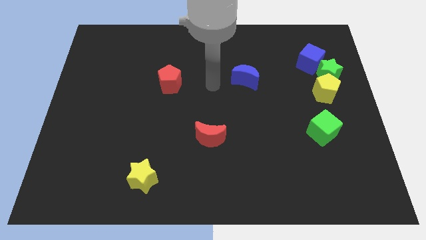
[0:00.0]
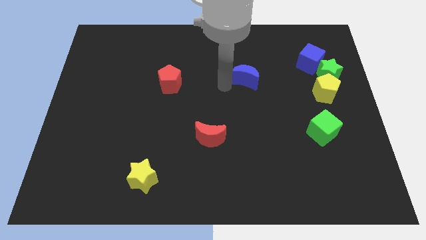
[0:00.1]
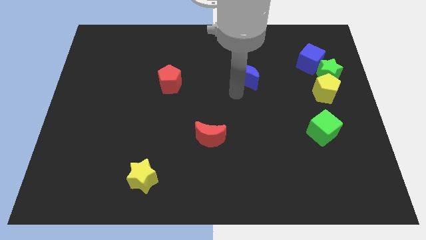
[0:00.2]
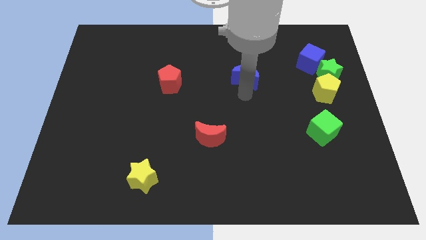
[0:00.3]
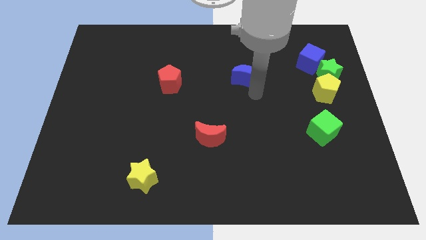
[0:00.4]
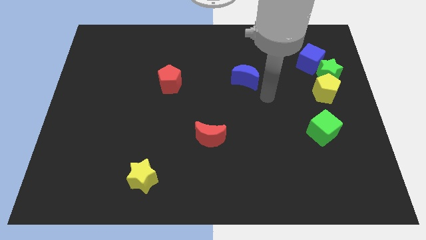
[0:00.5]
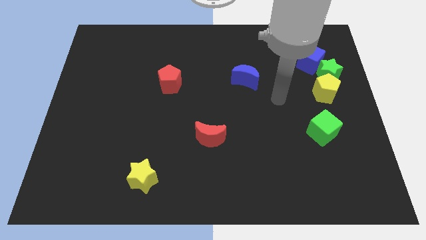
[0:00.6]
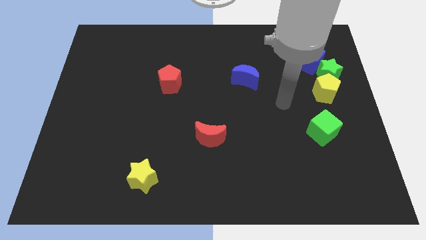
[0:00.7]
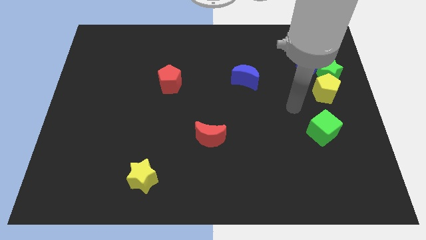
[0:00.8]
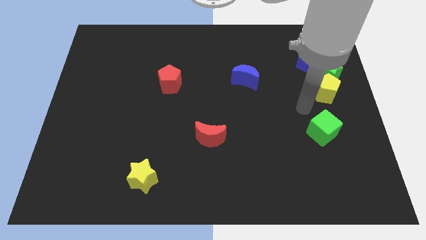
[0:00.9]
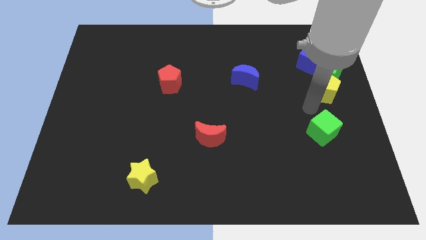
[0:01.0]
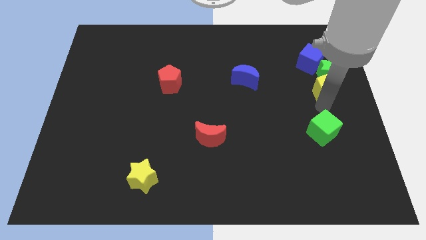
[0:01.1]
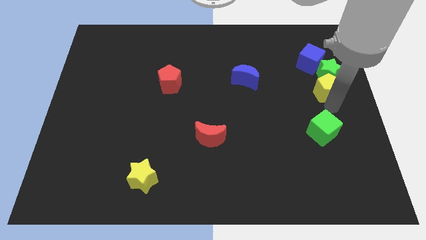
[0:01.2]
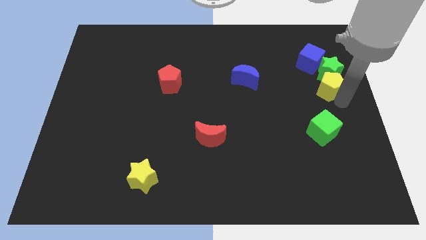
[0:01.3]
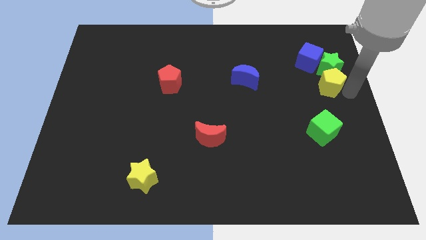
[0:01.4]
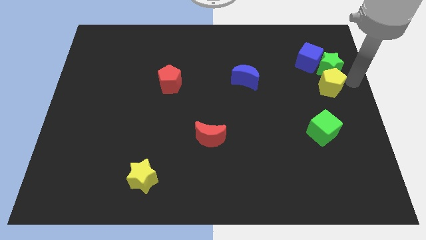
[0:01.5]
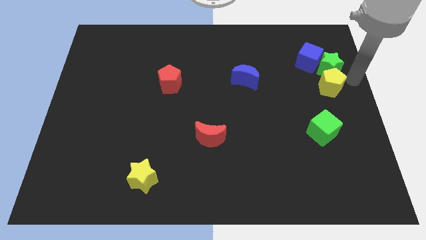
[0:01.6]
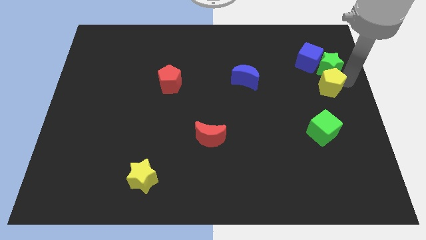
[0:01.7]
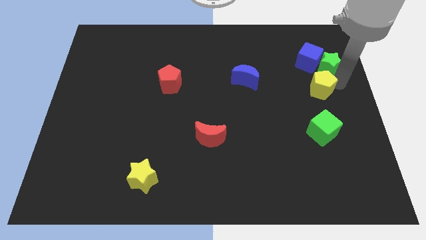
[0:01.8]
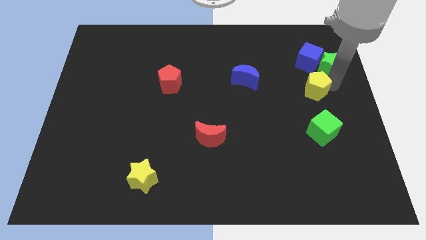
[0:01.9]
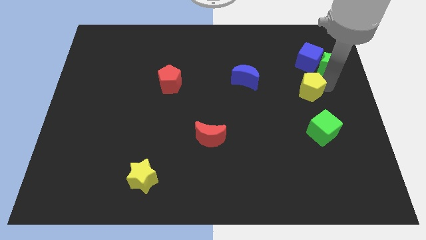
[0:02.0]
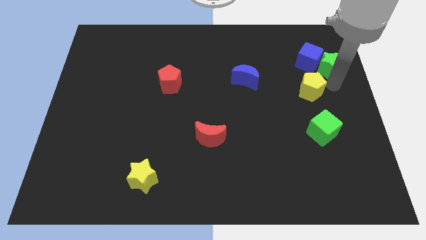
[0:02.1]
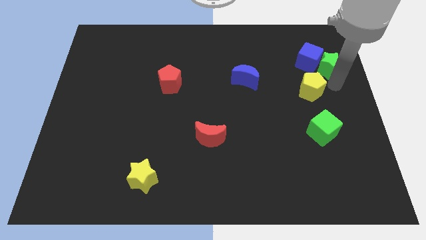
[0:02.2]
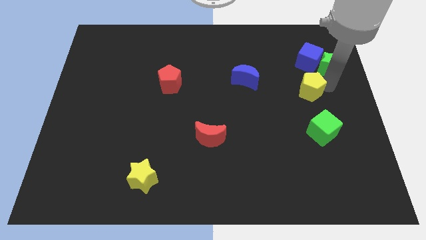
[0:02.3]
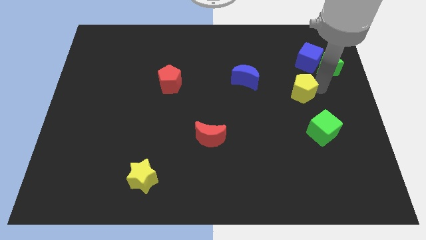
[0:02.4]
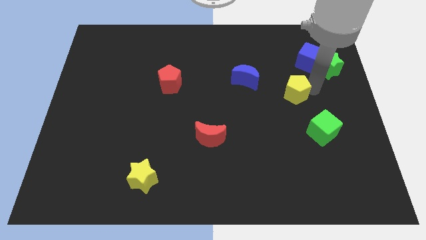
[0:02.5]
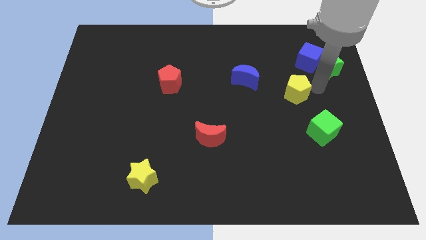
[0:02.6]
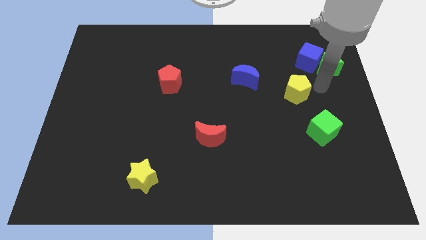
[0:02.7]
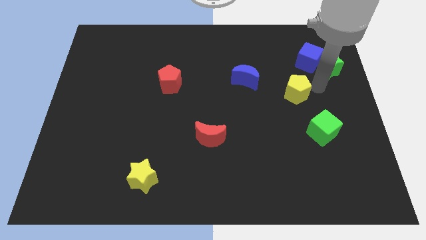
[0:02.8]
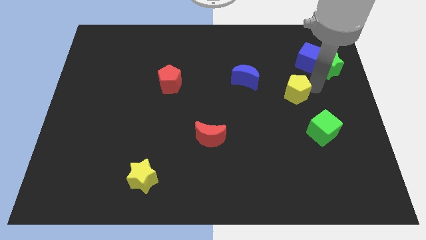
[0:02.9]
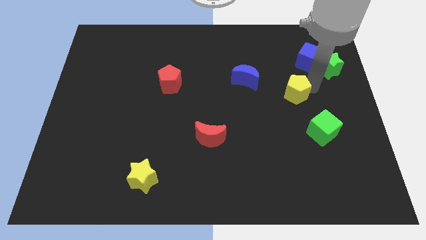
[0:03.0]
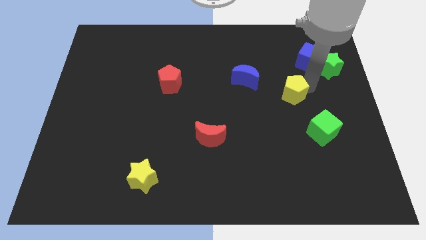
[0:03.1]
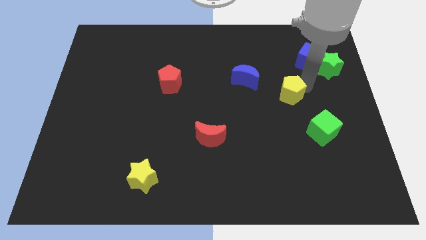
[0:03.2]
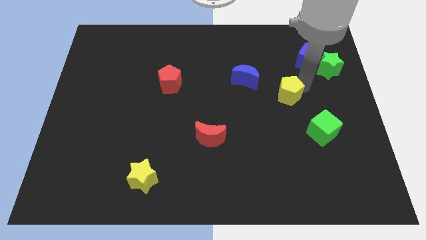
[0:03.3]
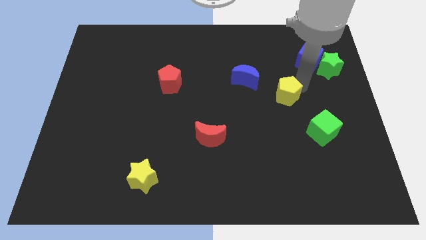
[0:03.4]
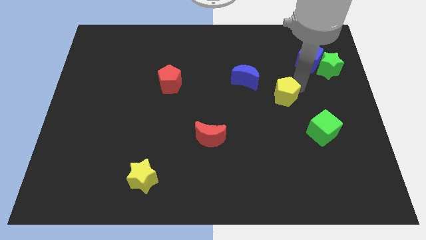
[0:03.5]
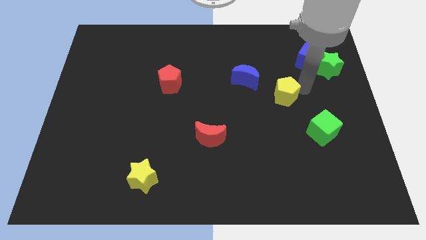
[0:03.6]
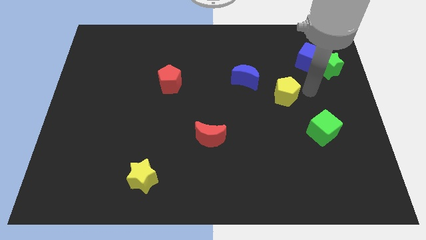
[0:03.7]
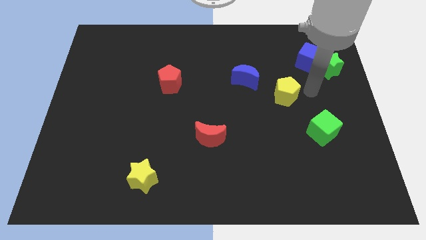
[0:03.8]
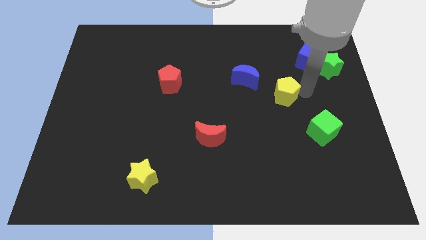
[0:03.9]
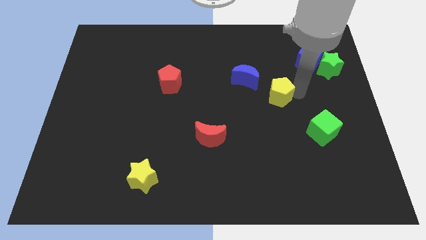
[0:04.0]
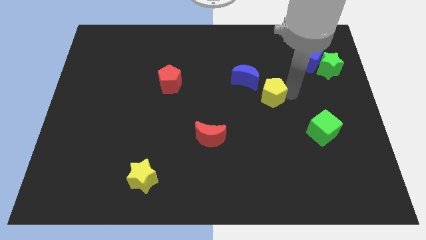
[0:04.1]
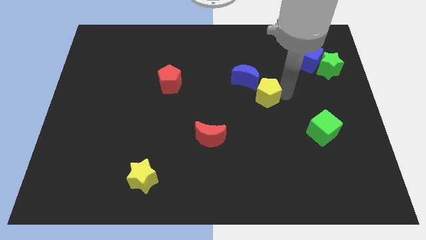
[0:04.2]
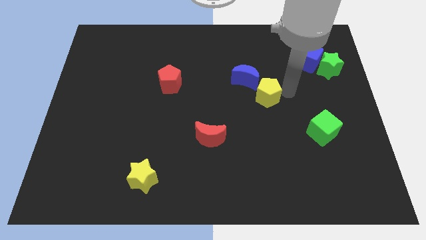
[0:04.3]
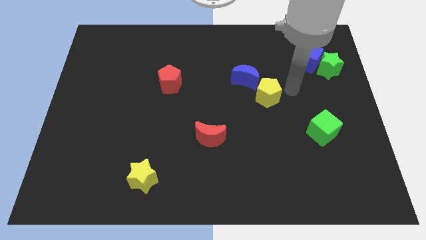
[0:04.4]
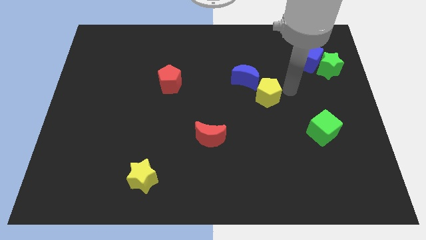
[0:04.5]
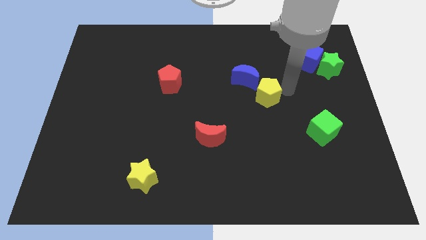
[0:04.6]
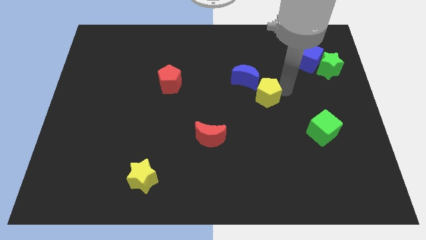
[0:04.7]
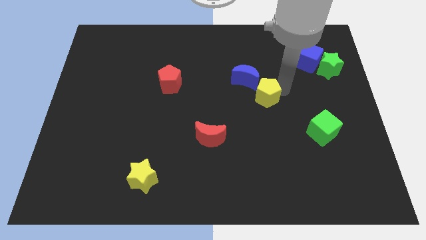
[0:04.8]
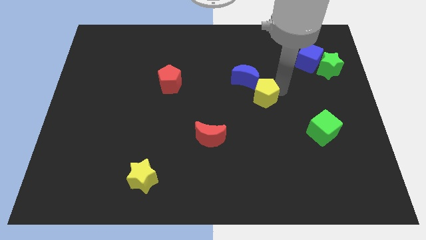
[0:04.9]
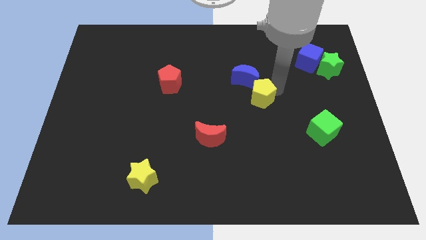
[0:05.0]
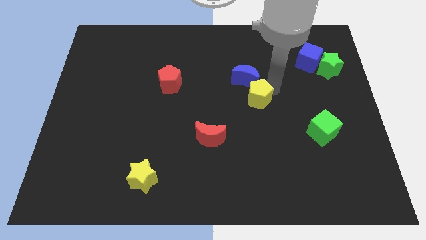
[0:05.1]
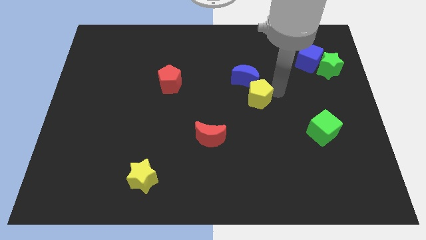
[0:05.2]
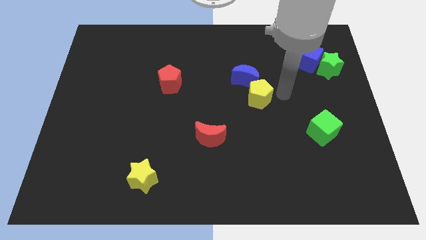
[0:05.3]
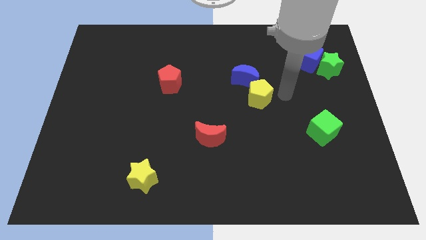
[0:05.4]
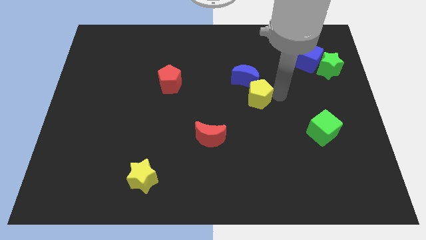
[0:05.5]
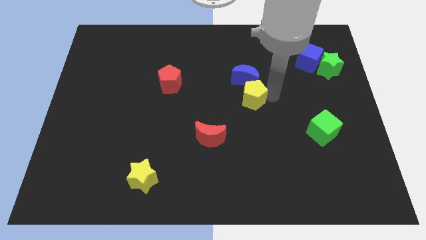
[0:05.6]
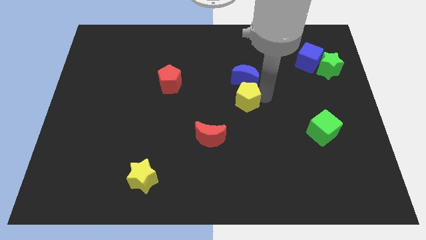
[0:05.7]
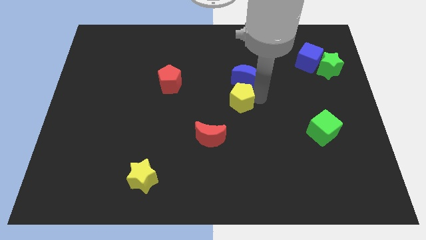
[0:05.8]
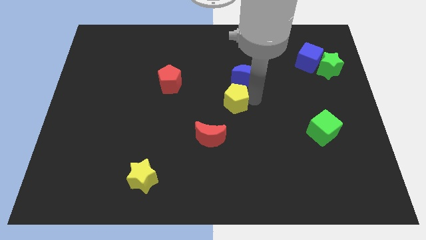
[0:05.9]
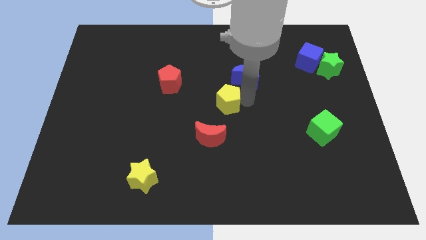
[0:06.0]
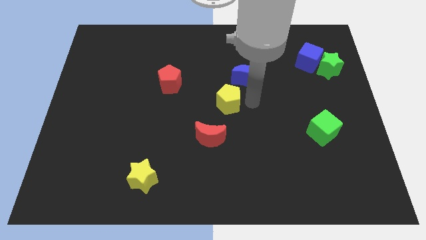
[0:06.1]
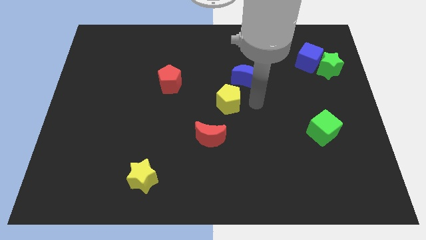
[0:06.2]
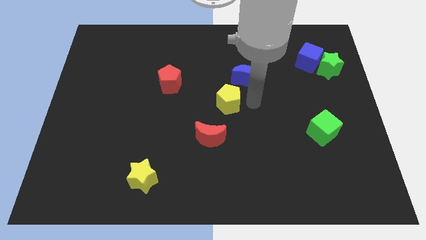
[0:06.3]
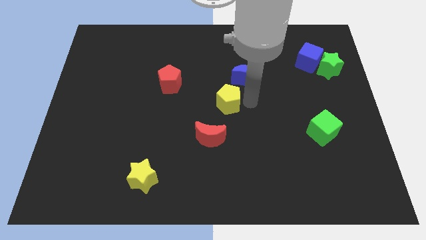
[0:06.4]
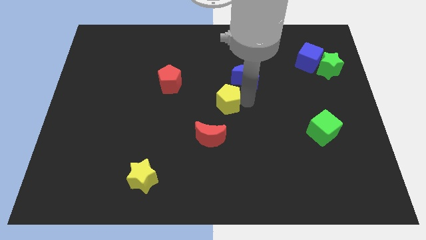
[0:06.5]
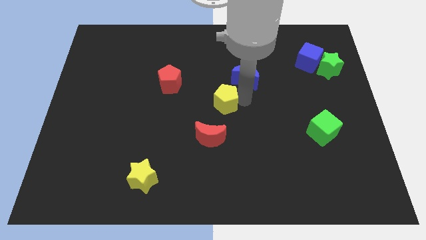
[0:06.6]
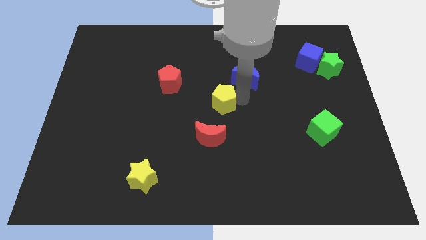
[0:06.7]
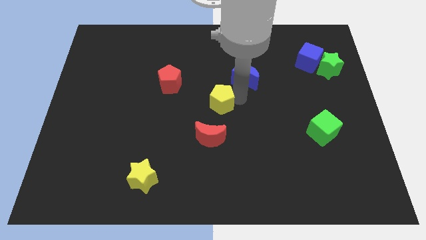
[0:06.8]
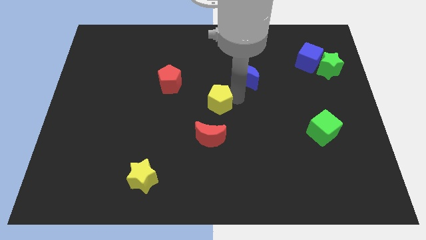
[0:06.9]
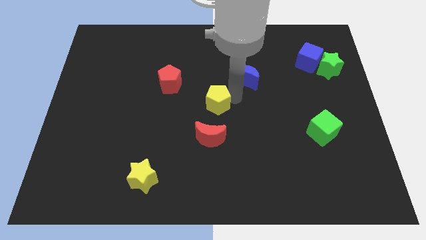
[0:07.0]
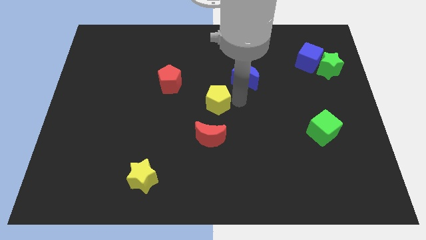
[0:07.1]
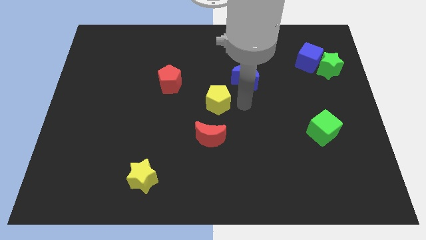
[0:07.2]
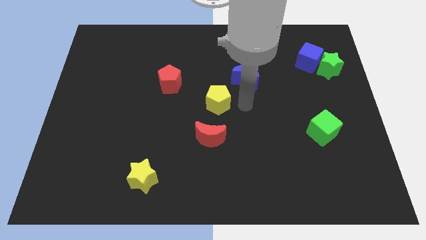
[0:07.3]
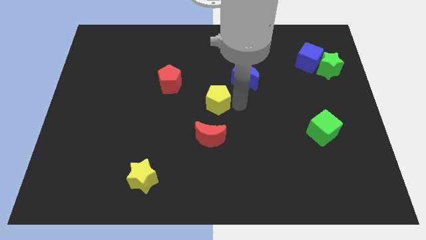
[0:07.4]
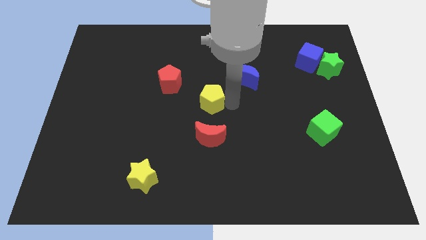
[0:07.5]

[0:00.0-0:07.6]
move the yellow pentagon diagonally down and to the right of the red pentagon
